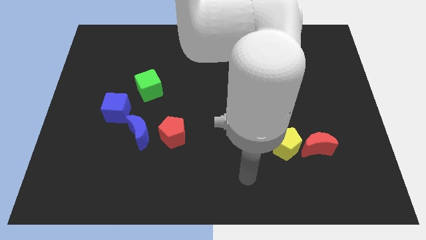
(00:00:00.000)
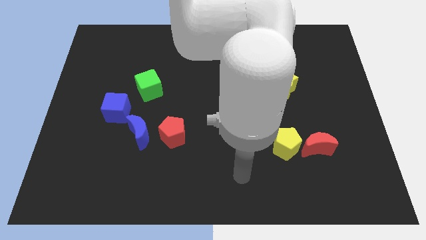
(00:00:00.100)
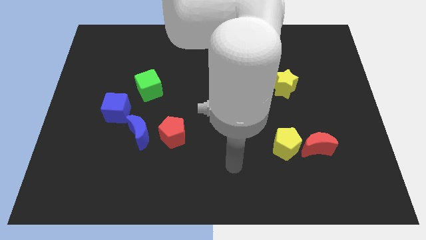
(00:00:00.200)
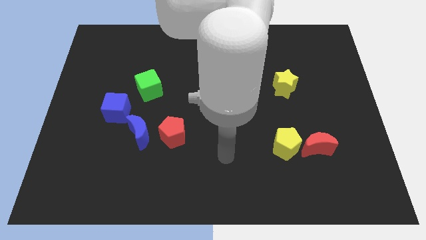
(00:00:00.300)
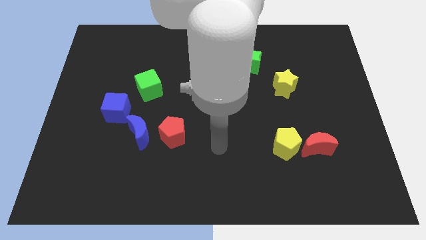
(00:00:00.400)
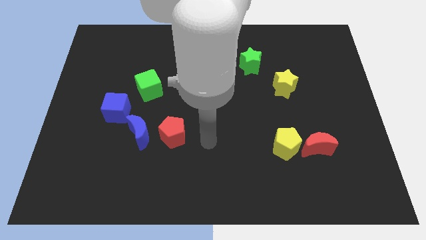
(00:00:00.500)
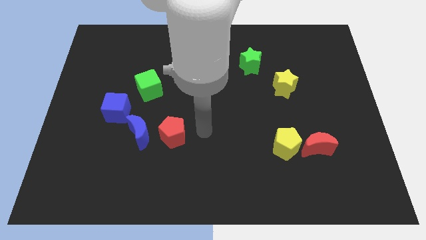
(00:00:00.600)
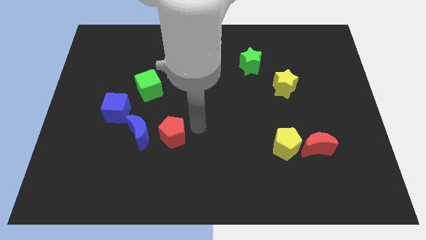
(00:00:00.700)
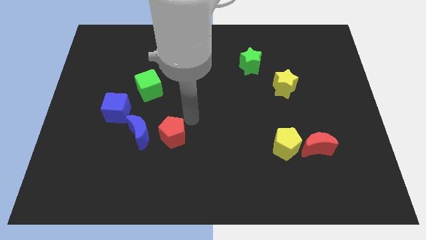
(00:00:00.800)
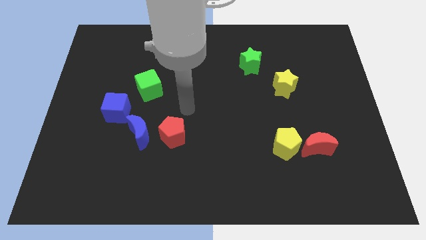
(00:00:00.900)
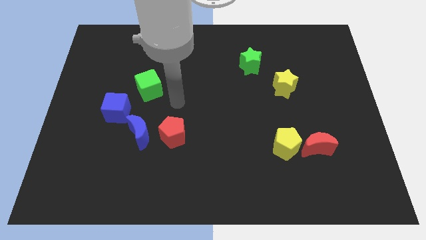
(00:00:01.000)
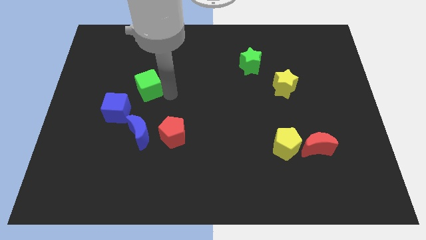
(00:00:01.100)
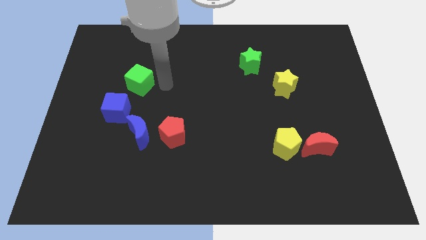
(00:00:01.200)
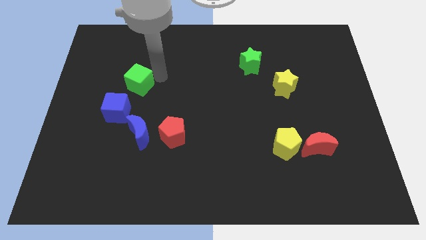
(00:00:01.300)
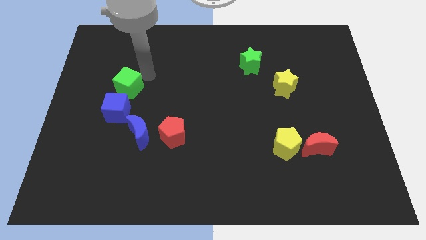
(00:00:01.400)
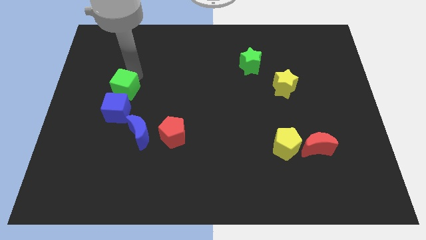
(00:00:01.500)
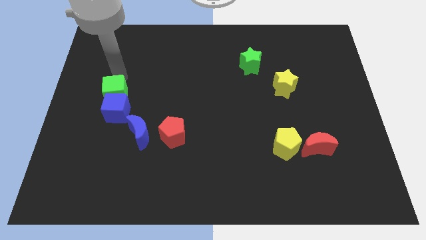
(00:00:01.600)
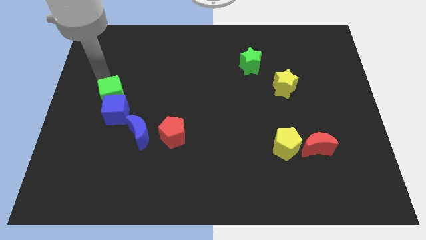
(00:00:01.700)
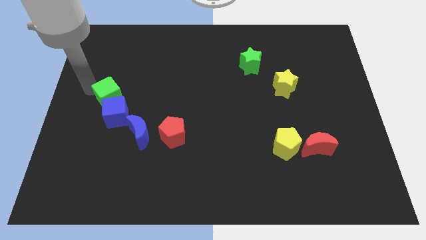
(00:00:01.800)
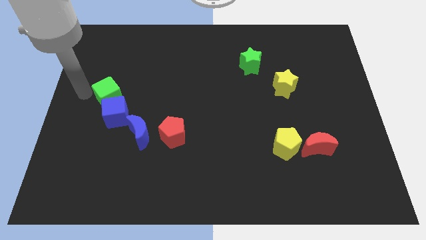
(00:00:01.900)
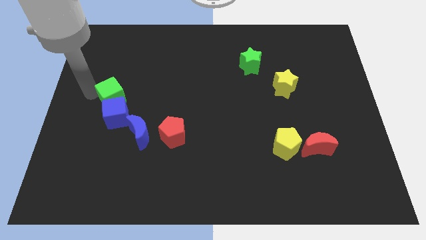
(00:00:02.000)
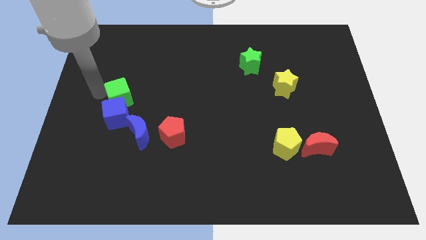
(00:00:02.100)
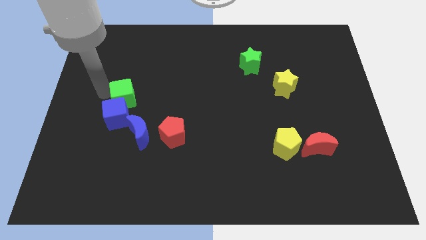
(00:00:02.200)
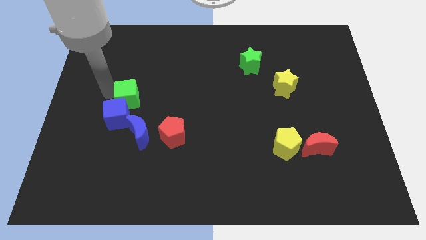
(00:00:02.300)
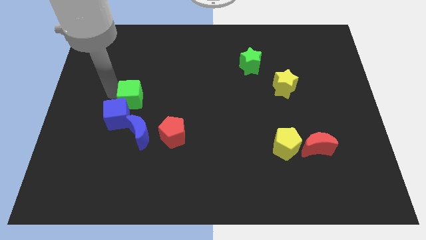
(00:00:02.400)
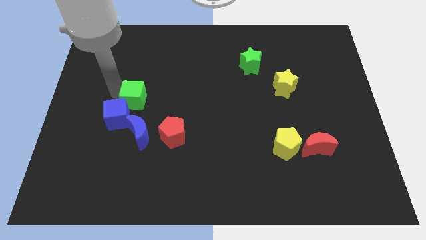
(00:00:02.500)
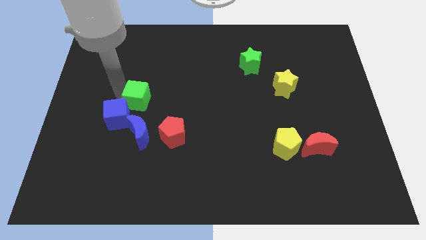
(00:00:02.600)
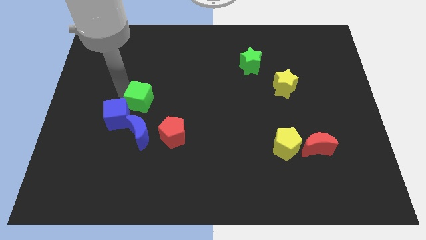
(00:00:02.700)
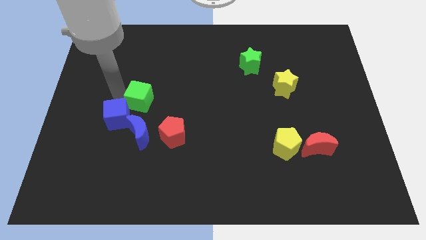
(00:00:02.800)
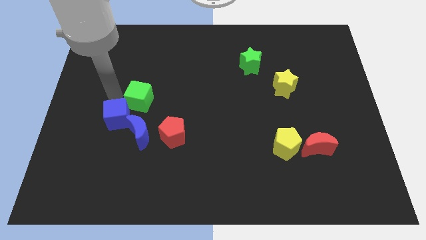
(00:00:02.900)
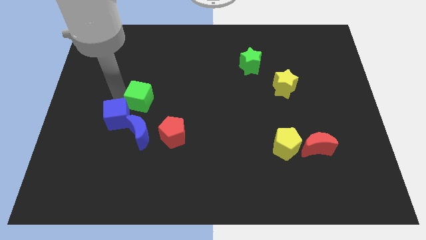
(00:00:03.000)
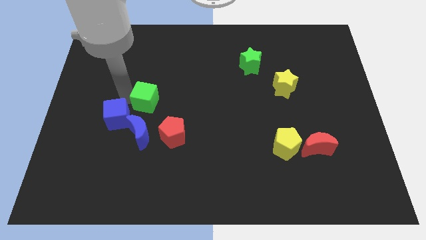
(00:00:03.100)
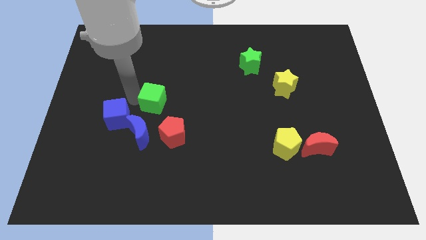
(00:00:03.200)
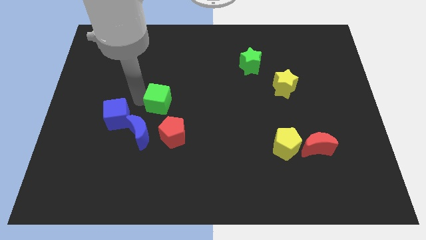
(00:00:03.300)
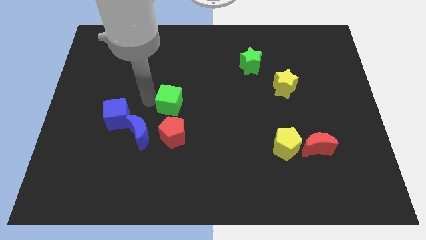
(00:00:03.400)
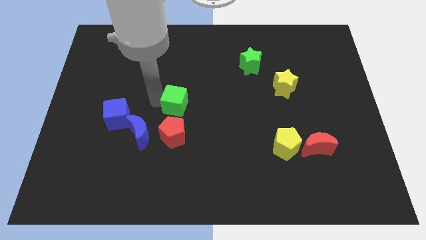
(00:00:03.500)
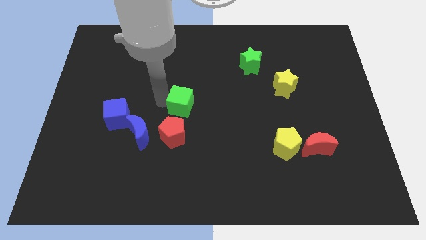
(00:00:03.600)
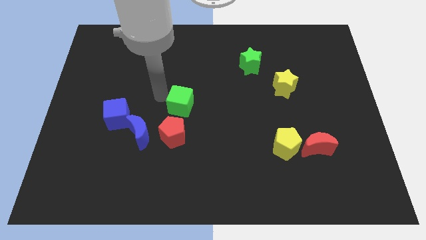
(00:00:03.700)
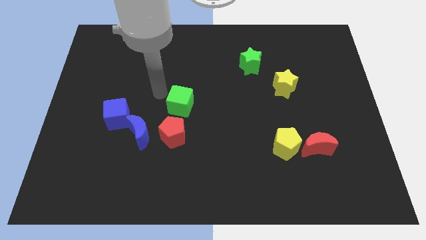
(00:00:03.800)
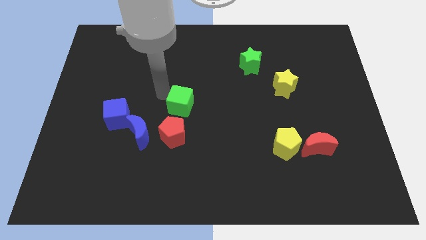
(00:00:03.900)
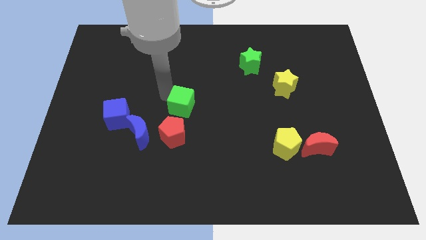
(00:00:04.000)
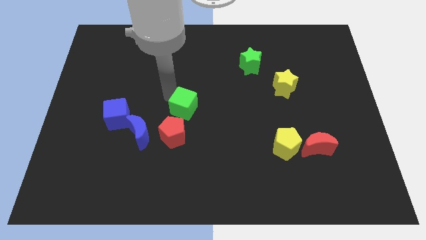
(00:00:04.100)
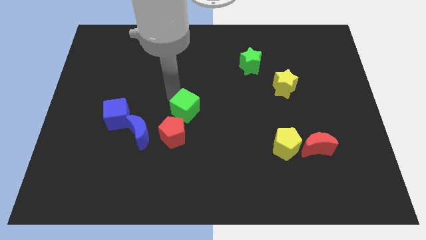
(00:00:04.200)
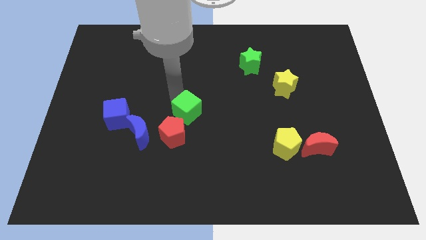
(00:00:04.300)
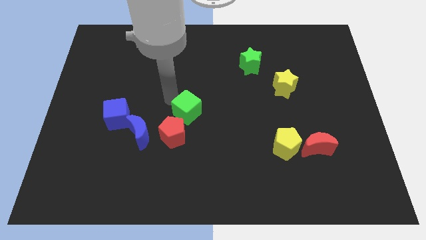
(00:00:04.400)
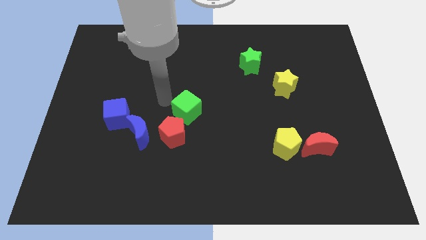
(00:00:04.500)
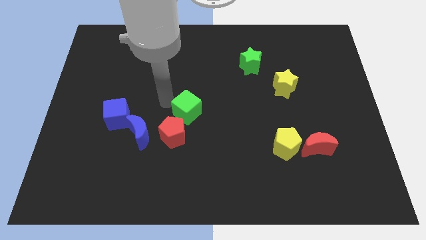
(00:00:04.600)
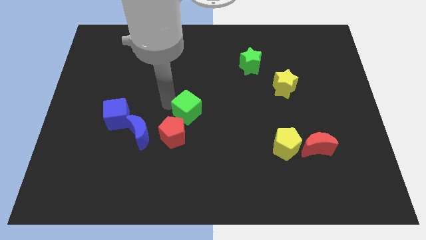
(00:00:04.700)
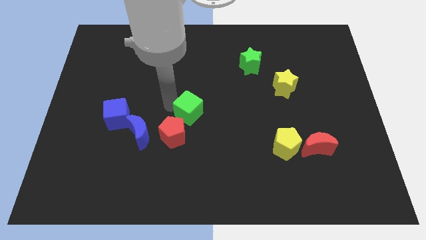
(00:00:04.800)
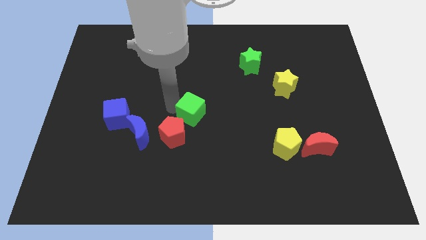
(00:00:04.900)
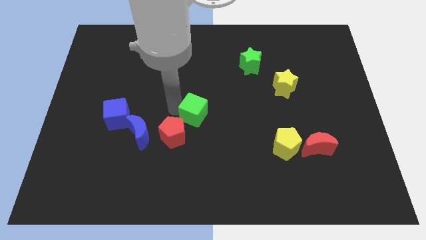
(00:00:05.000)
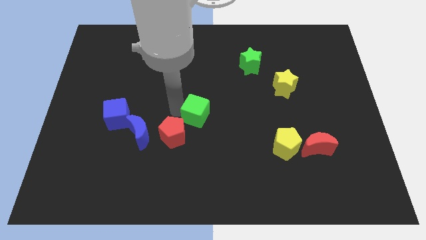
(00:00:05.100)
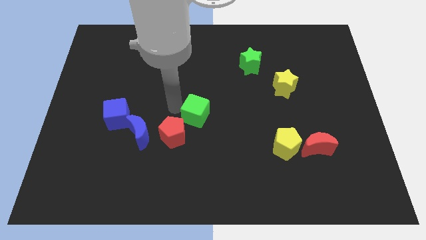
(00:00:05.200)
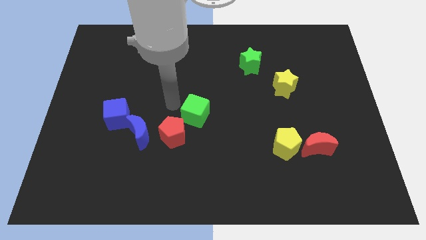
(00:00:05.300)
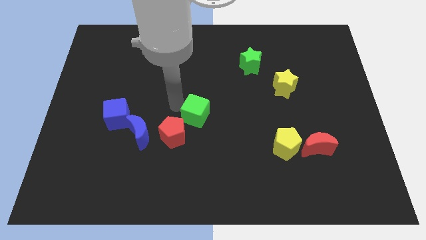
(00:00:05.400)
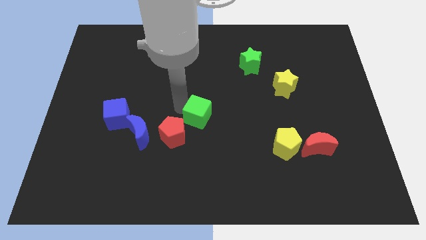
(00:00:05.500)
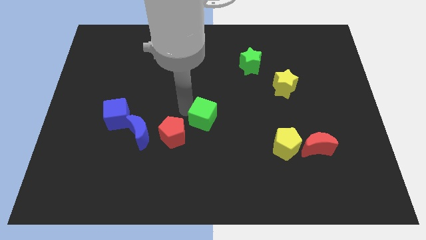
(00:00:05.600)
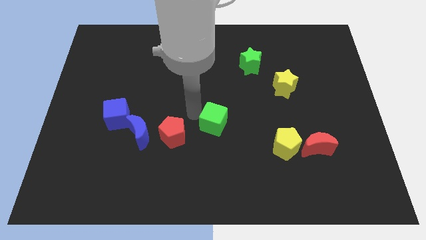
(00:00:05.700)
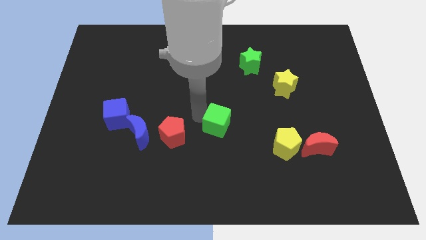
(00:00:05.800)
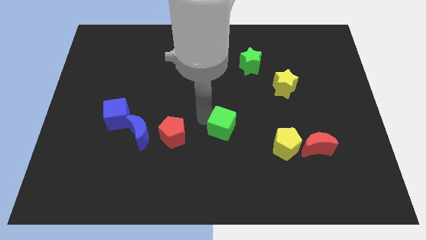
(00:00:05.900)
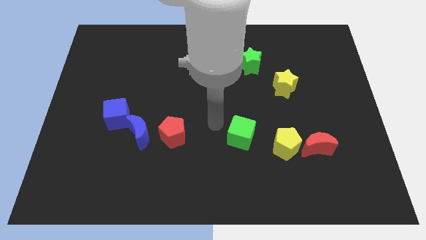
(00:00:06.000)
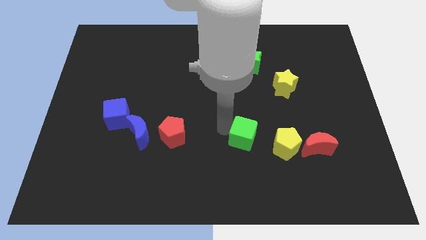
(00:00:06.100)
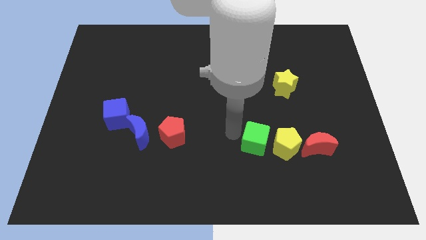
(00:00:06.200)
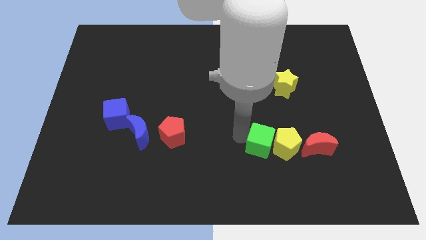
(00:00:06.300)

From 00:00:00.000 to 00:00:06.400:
slide the green cube close to the yellow pentagon

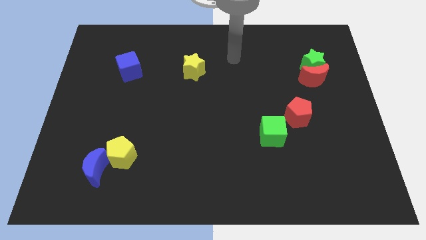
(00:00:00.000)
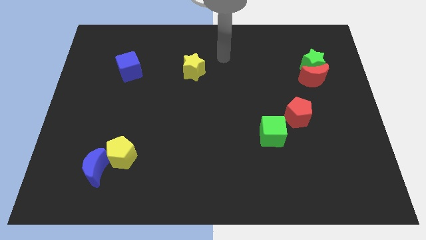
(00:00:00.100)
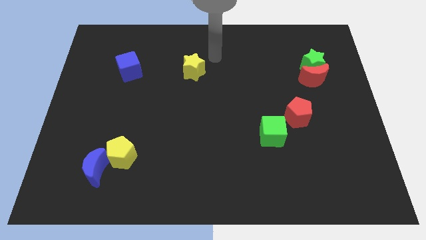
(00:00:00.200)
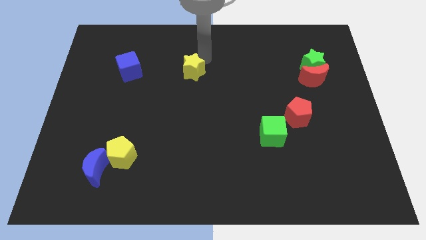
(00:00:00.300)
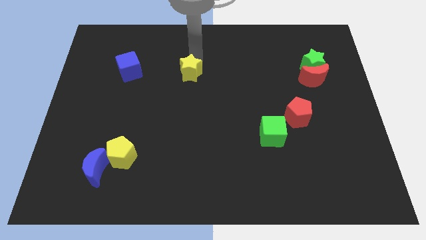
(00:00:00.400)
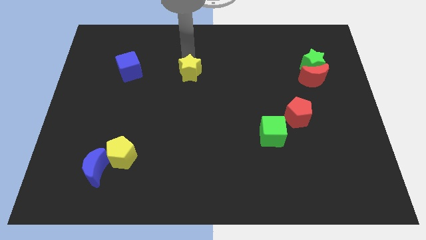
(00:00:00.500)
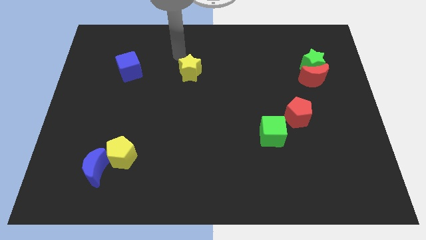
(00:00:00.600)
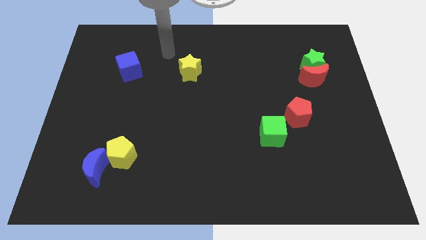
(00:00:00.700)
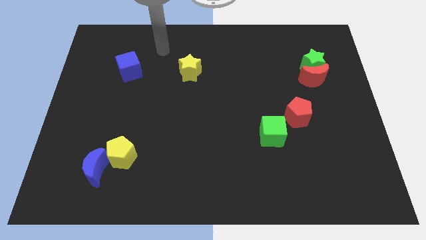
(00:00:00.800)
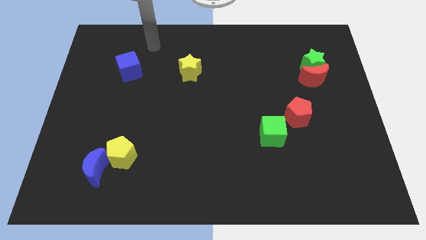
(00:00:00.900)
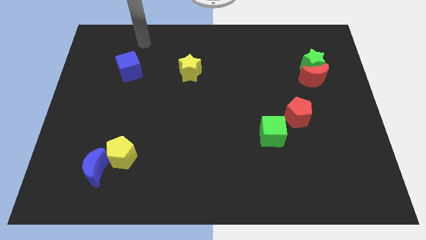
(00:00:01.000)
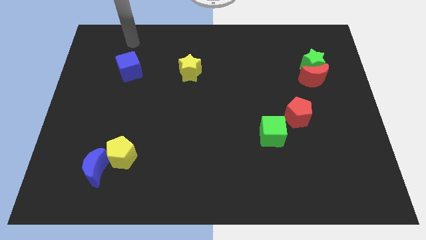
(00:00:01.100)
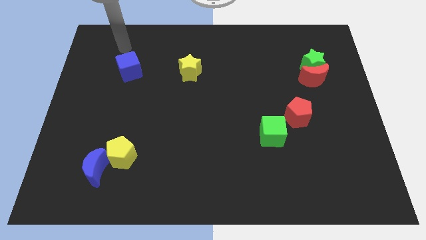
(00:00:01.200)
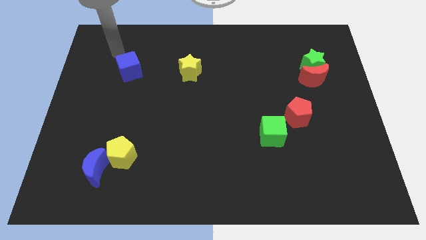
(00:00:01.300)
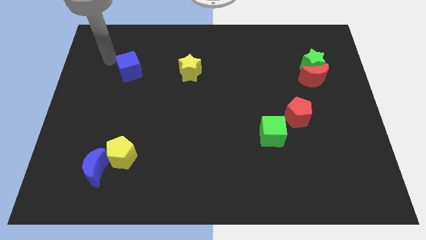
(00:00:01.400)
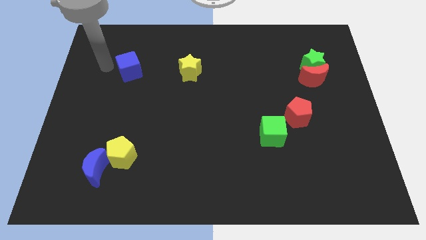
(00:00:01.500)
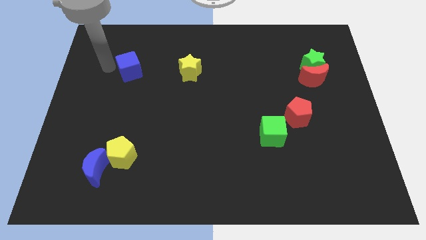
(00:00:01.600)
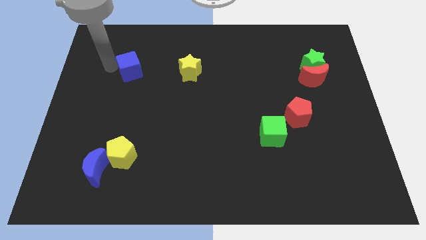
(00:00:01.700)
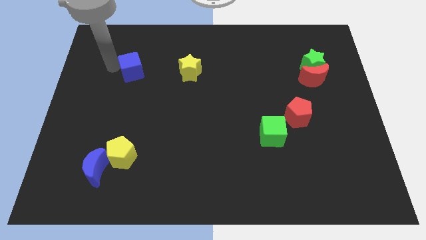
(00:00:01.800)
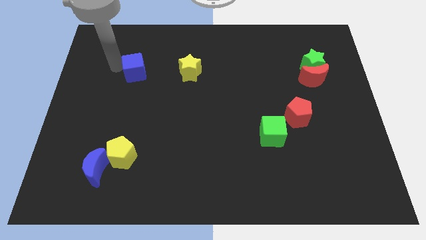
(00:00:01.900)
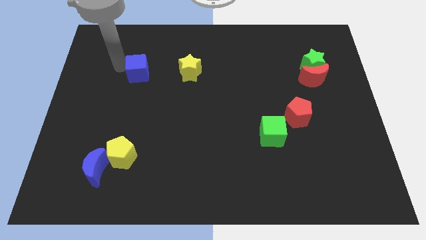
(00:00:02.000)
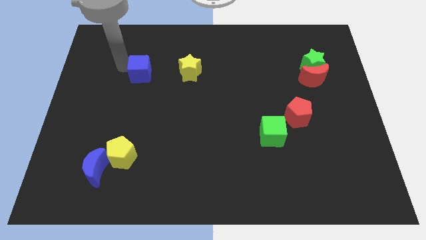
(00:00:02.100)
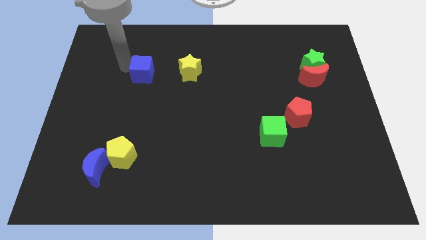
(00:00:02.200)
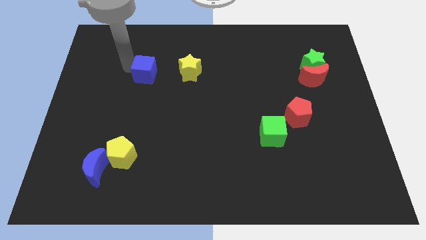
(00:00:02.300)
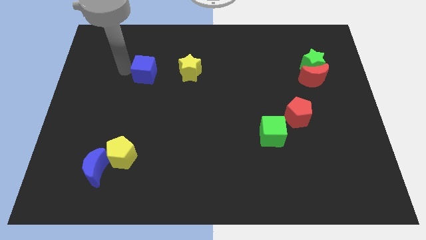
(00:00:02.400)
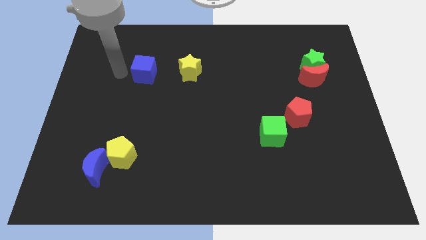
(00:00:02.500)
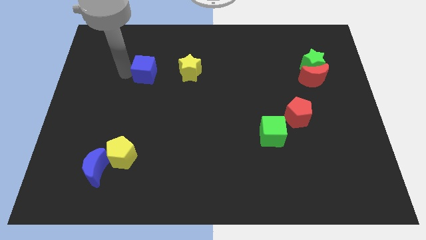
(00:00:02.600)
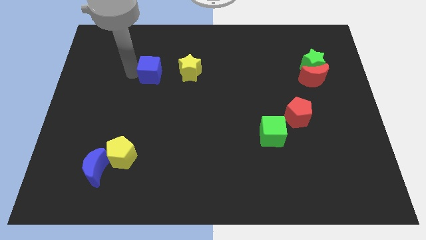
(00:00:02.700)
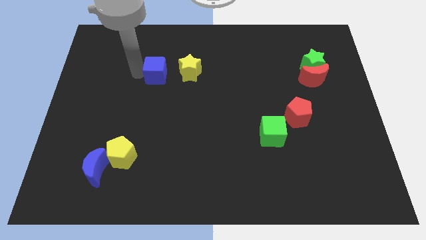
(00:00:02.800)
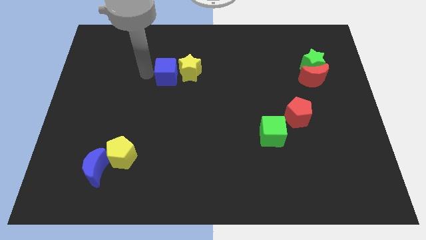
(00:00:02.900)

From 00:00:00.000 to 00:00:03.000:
slide the blue cube close to the yellow star
